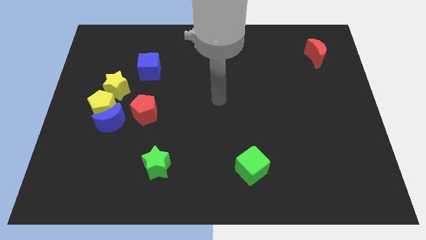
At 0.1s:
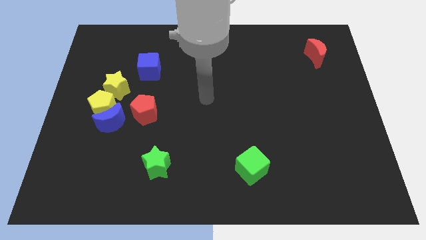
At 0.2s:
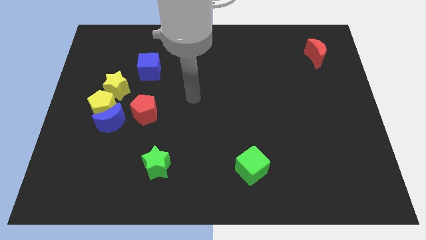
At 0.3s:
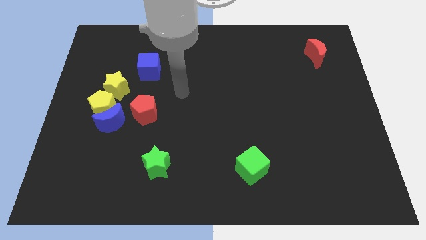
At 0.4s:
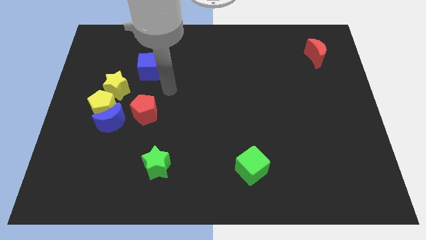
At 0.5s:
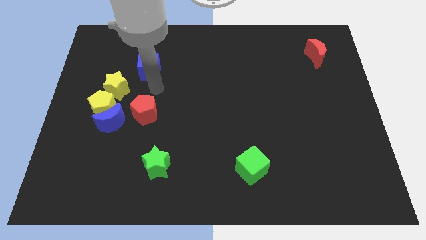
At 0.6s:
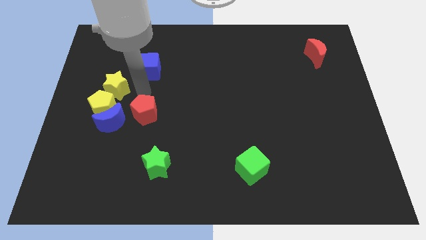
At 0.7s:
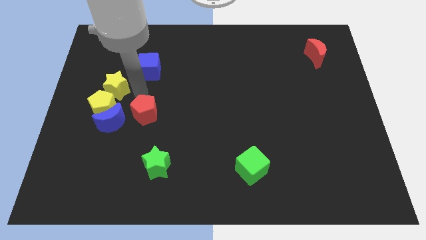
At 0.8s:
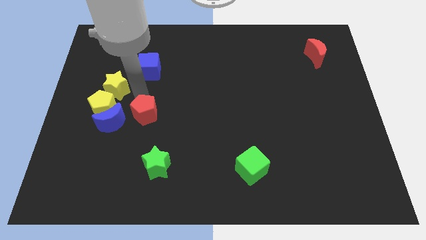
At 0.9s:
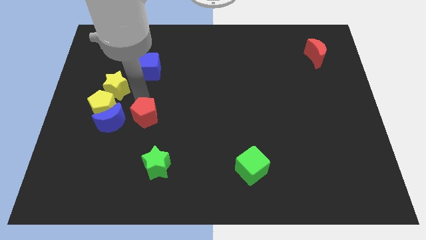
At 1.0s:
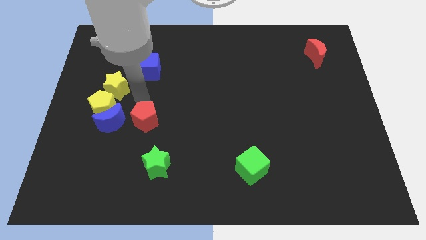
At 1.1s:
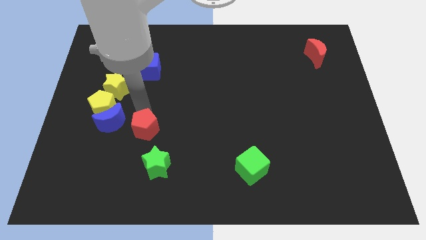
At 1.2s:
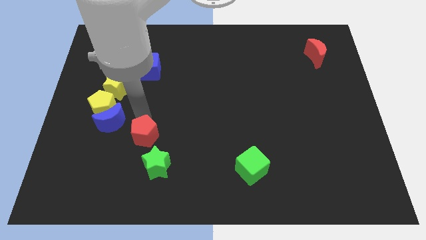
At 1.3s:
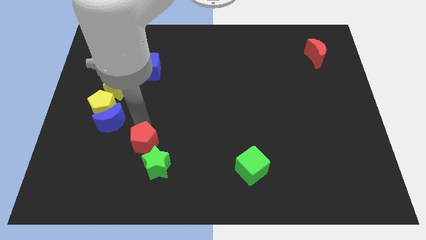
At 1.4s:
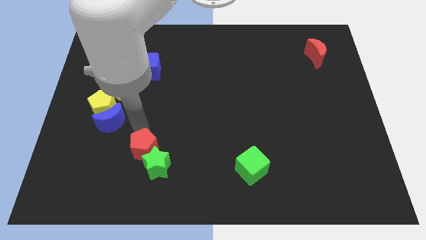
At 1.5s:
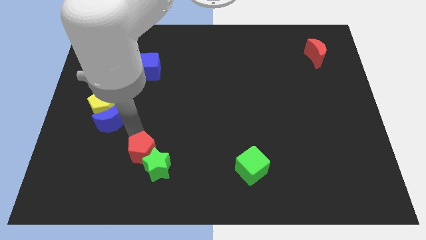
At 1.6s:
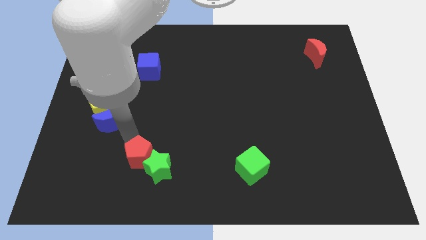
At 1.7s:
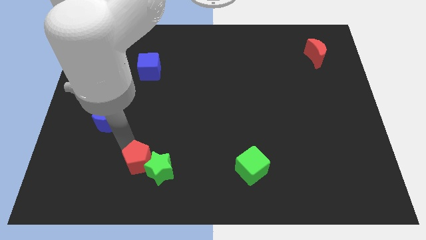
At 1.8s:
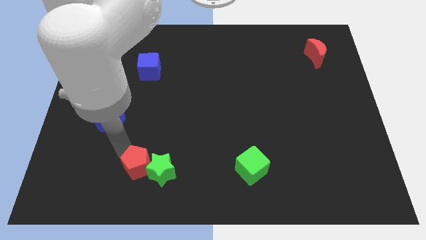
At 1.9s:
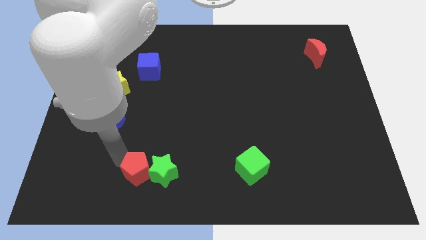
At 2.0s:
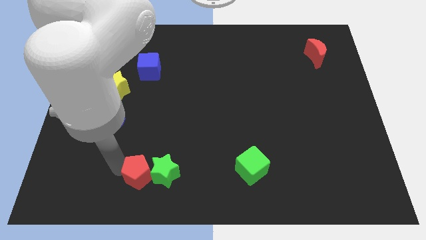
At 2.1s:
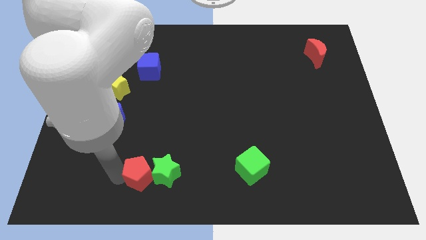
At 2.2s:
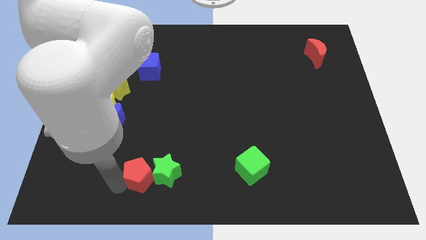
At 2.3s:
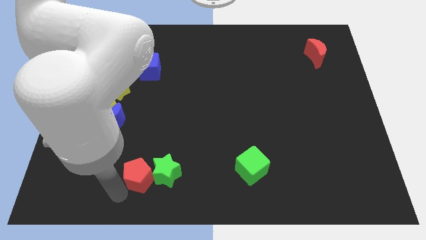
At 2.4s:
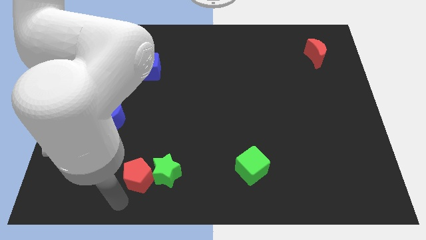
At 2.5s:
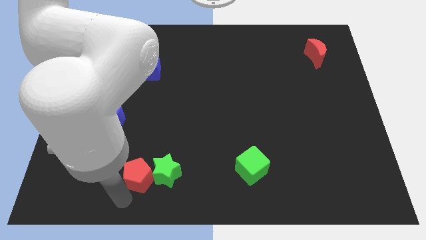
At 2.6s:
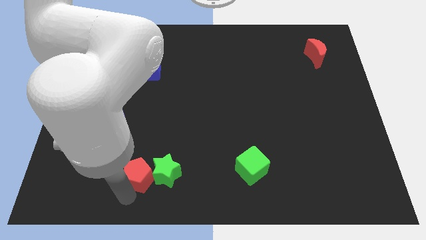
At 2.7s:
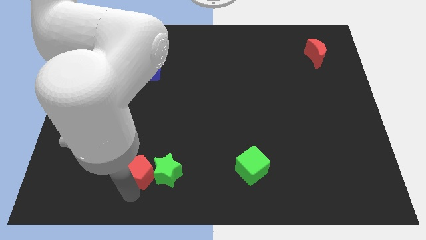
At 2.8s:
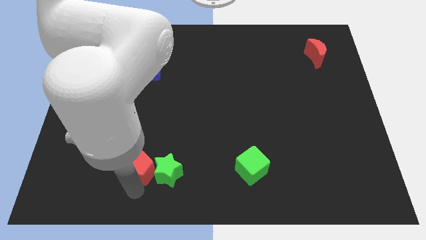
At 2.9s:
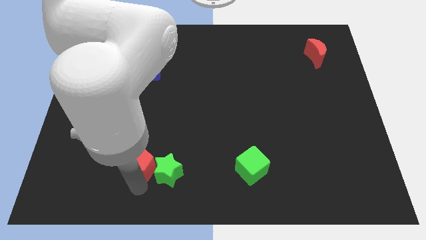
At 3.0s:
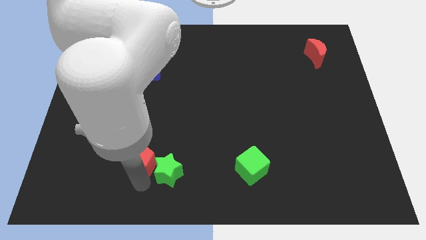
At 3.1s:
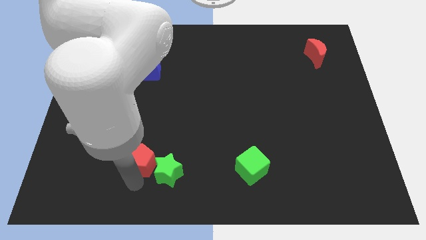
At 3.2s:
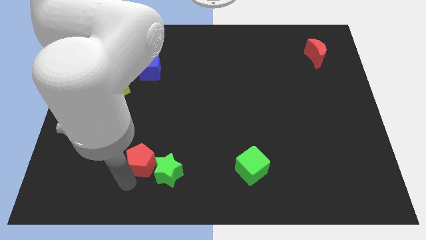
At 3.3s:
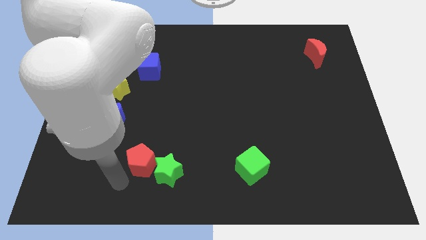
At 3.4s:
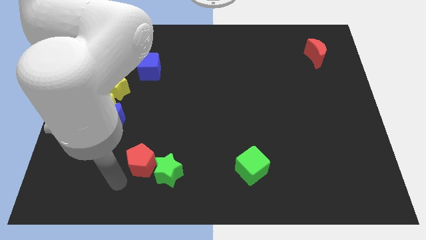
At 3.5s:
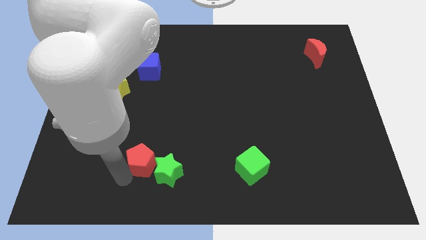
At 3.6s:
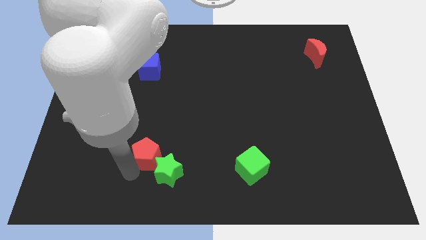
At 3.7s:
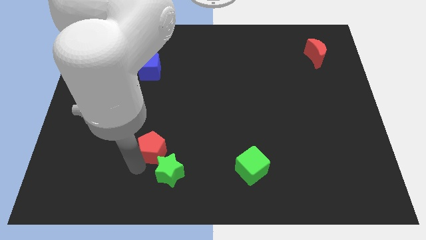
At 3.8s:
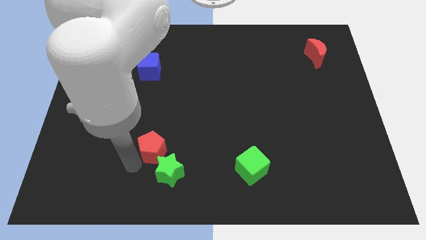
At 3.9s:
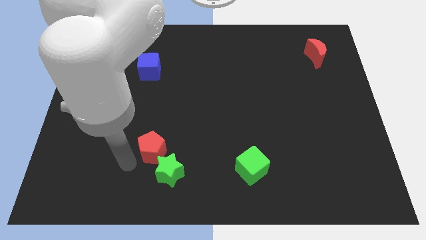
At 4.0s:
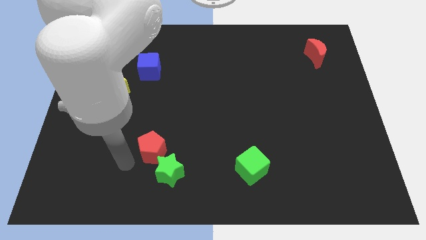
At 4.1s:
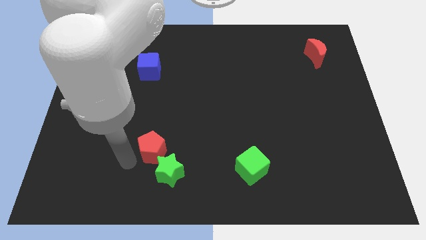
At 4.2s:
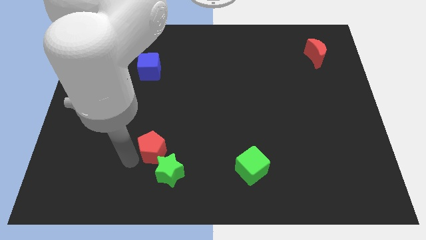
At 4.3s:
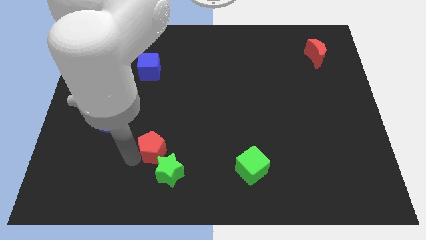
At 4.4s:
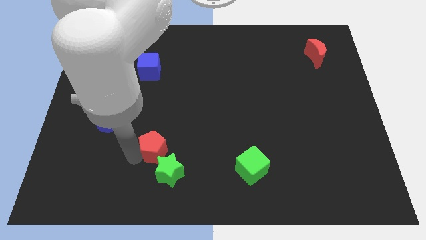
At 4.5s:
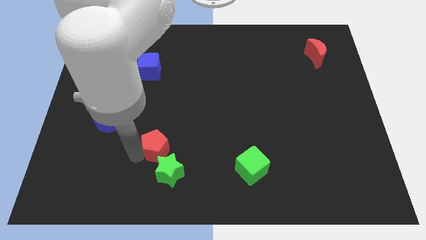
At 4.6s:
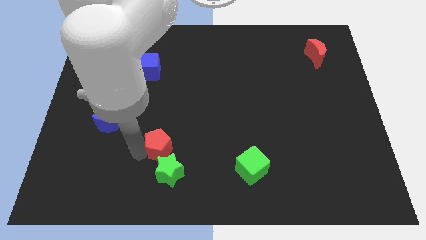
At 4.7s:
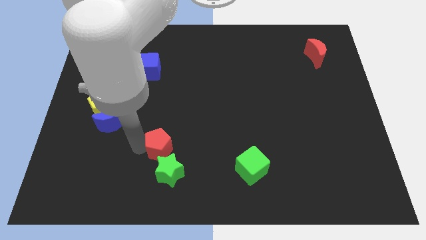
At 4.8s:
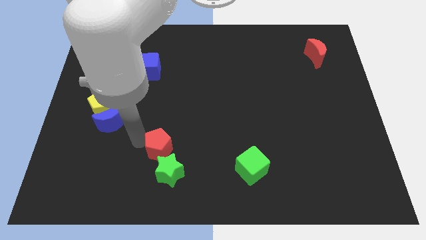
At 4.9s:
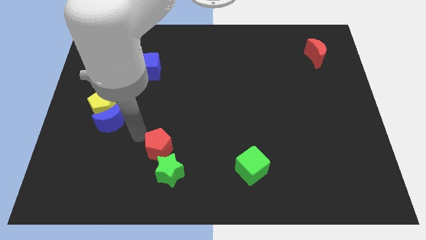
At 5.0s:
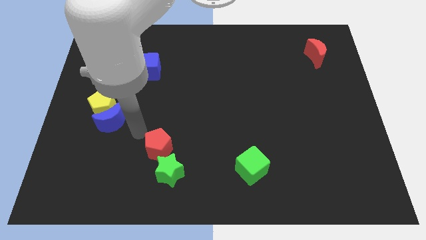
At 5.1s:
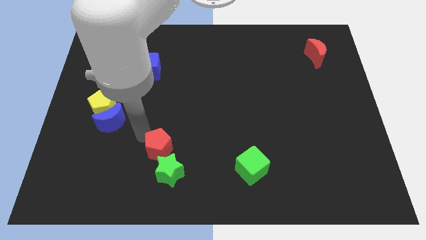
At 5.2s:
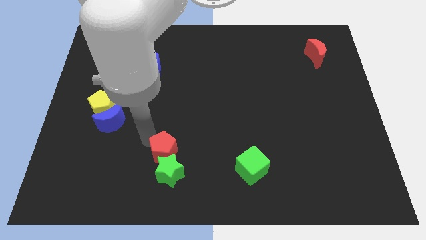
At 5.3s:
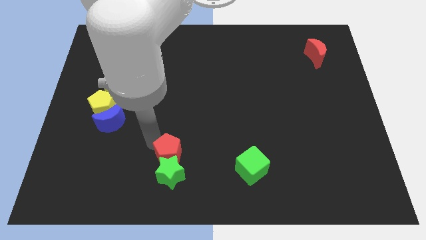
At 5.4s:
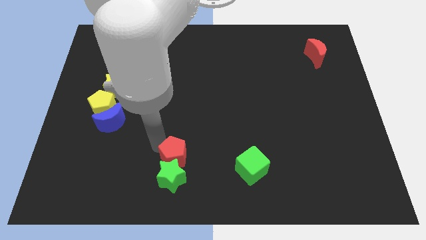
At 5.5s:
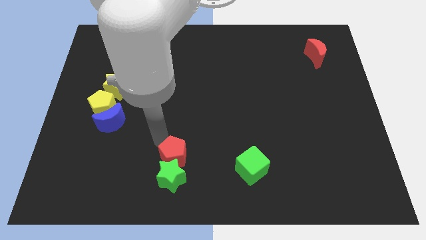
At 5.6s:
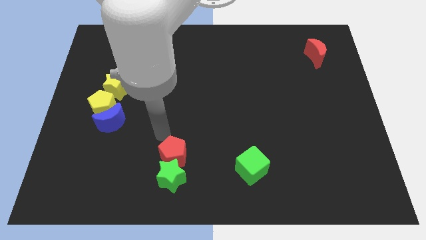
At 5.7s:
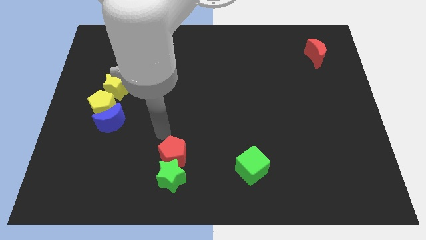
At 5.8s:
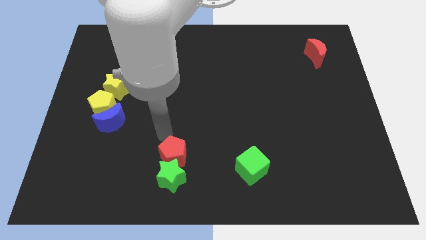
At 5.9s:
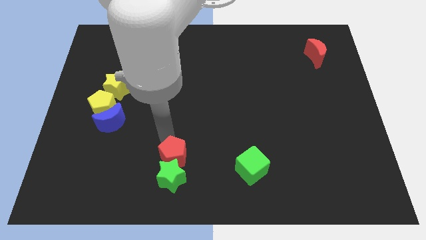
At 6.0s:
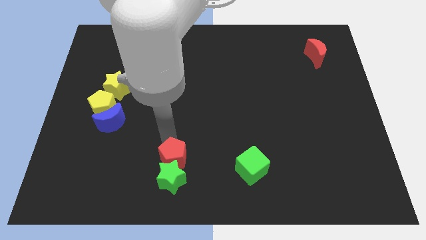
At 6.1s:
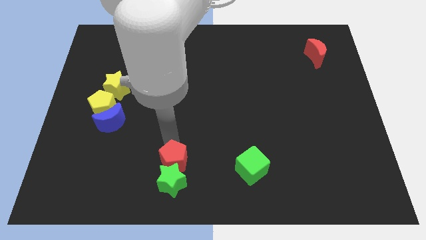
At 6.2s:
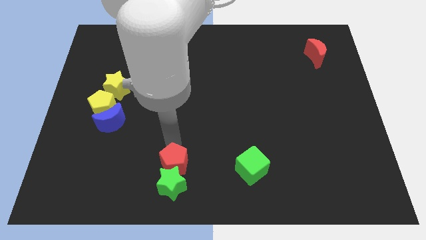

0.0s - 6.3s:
move the red pentagon to the bottom

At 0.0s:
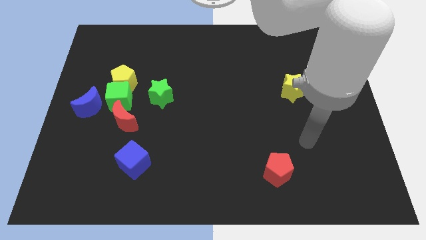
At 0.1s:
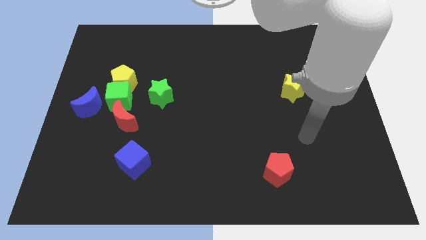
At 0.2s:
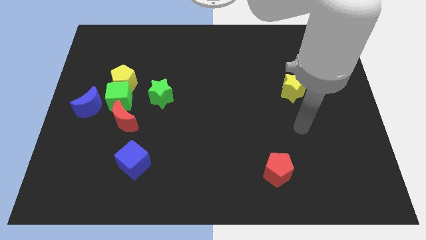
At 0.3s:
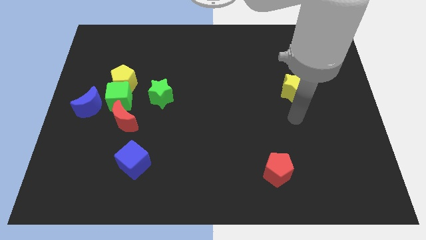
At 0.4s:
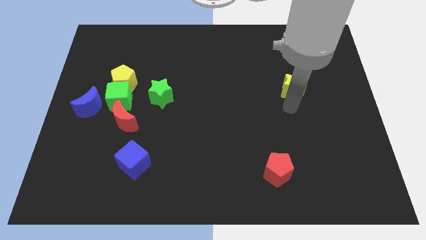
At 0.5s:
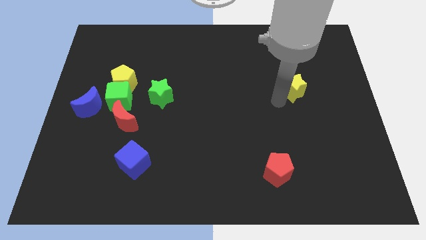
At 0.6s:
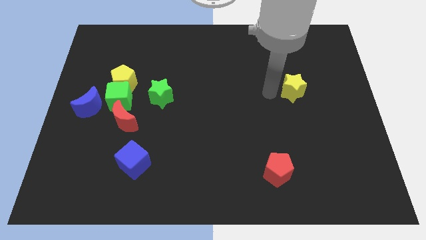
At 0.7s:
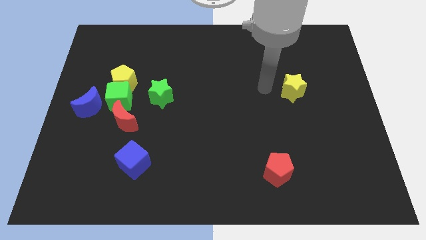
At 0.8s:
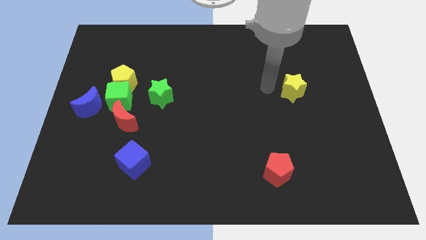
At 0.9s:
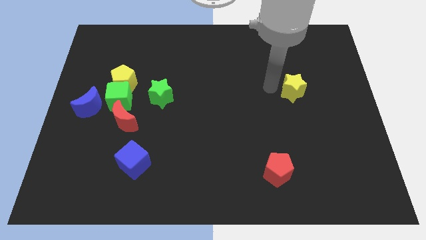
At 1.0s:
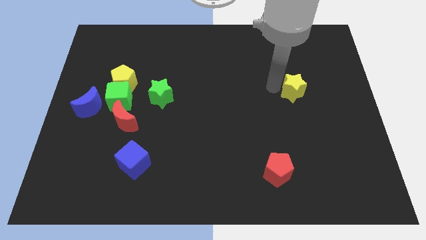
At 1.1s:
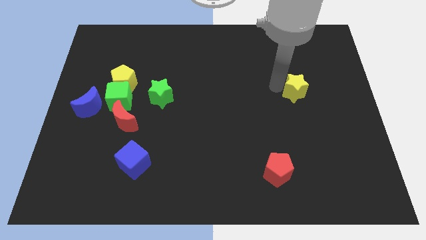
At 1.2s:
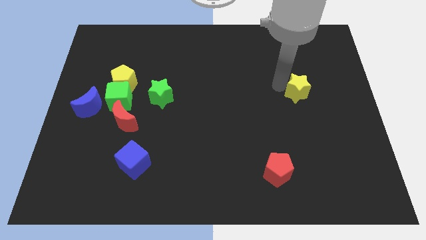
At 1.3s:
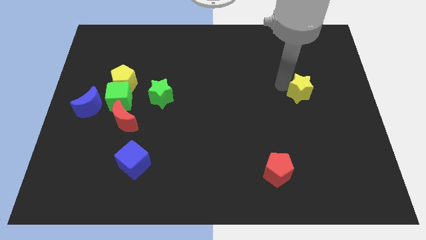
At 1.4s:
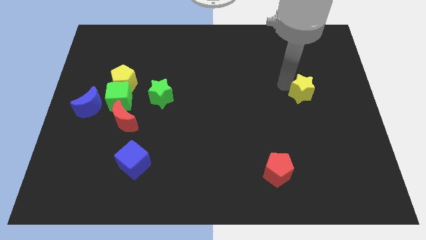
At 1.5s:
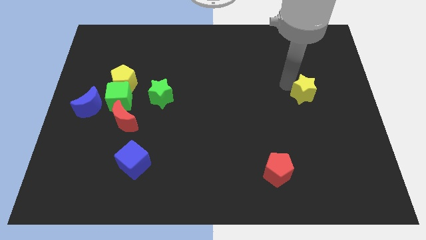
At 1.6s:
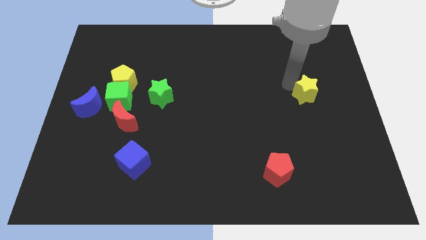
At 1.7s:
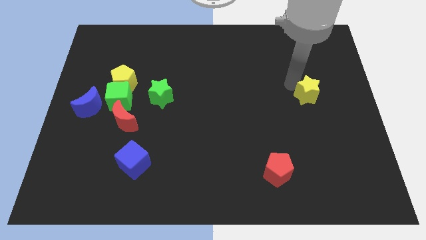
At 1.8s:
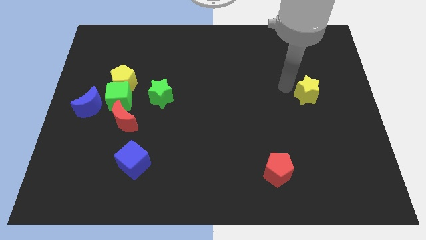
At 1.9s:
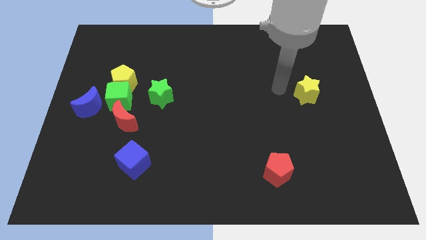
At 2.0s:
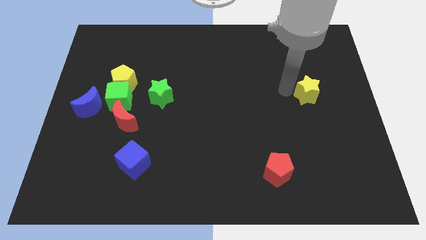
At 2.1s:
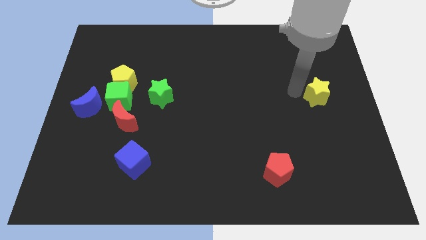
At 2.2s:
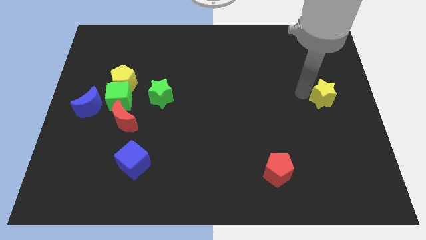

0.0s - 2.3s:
push the yellow star to the right side of the board
